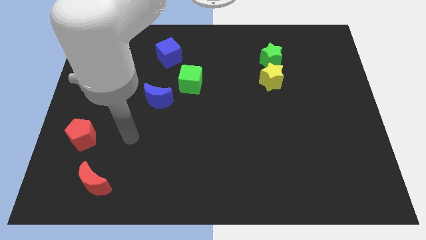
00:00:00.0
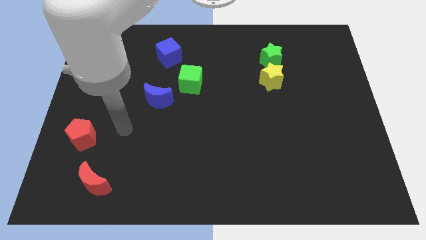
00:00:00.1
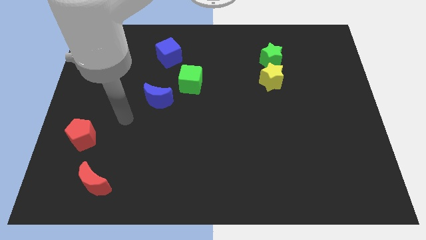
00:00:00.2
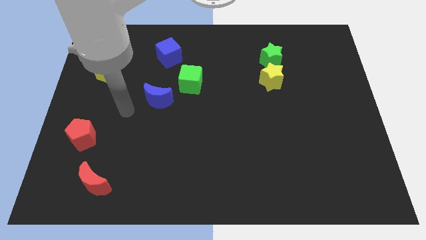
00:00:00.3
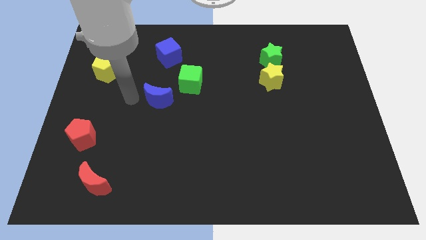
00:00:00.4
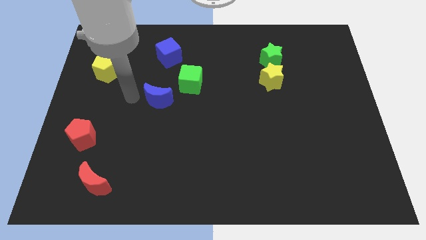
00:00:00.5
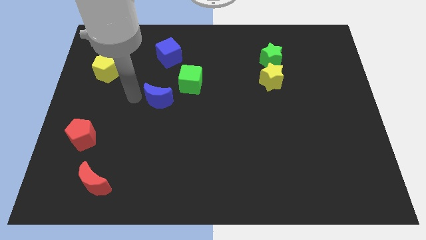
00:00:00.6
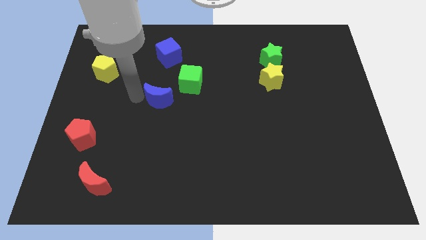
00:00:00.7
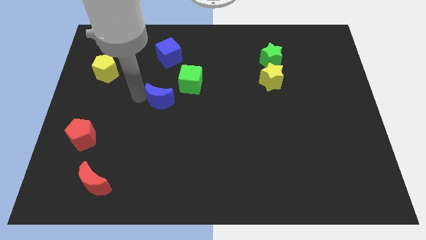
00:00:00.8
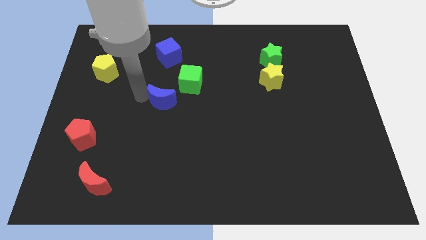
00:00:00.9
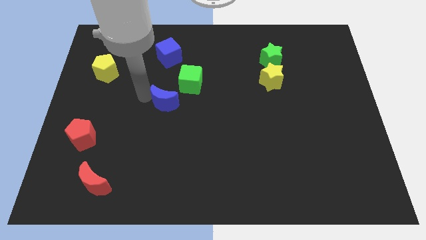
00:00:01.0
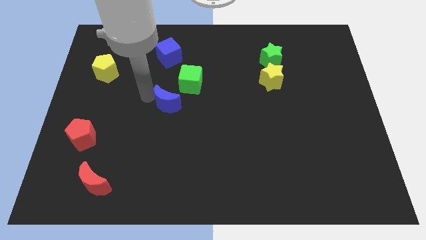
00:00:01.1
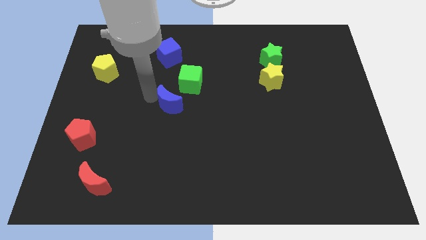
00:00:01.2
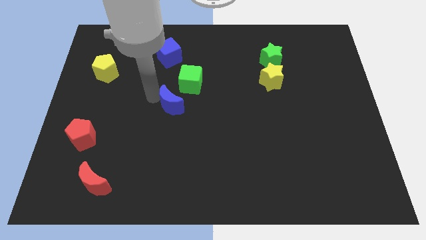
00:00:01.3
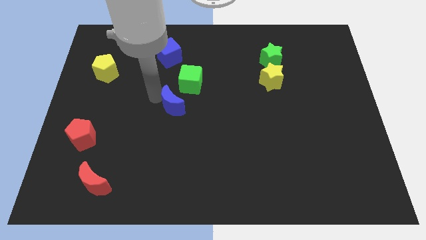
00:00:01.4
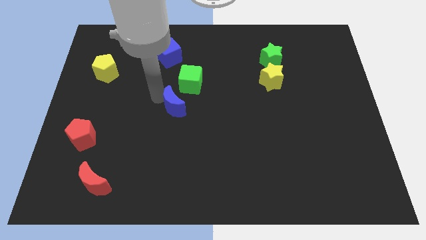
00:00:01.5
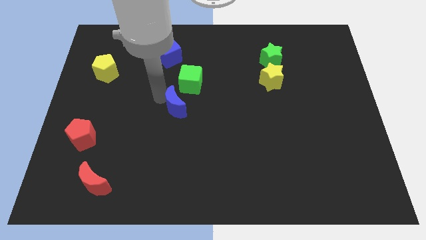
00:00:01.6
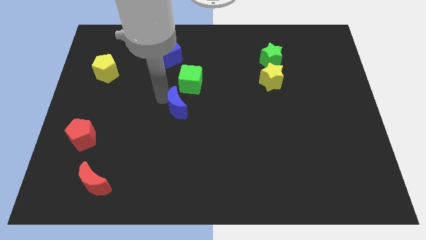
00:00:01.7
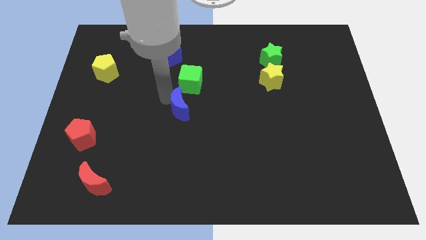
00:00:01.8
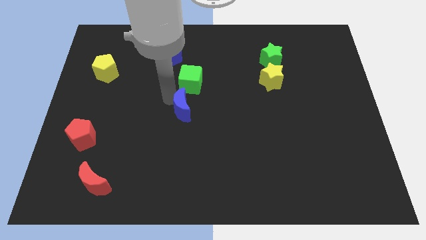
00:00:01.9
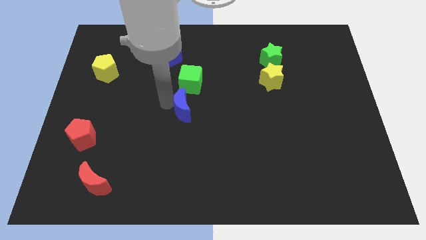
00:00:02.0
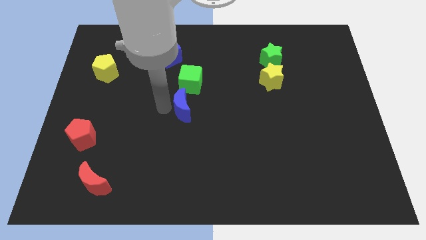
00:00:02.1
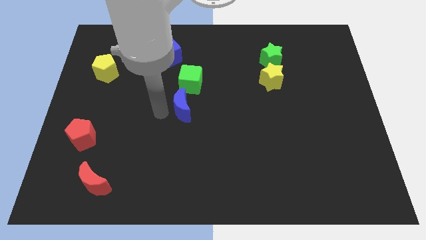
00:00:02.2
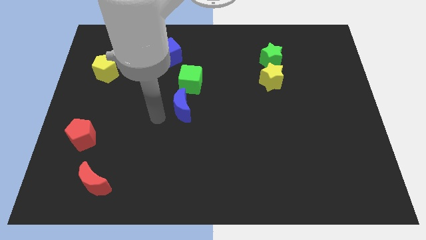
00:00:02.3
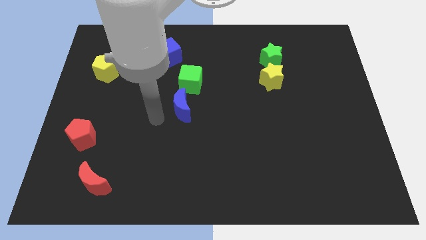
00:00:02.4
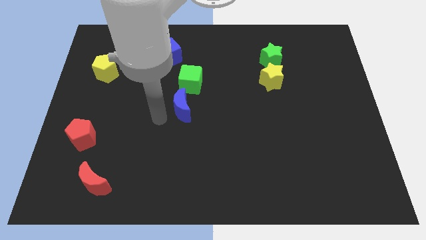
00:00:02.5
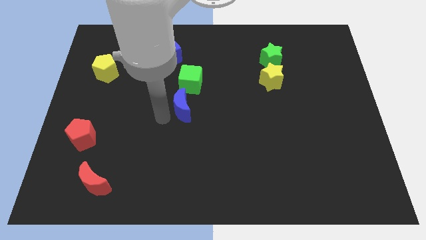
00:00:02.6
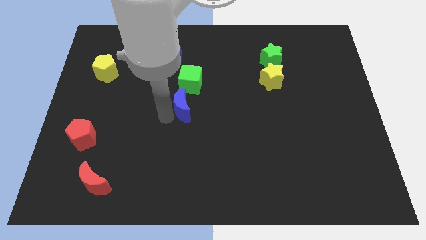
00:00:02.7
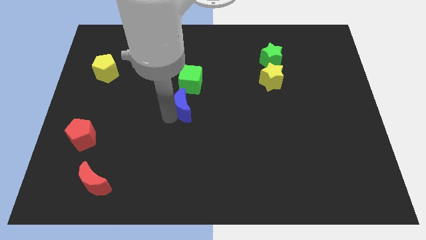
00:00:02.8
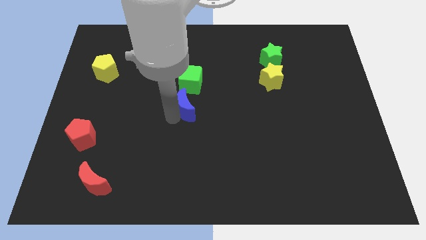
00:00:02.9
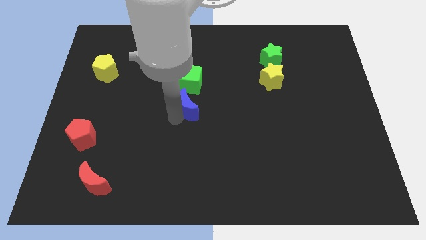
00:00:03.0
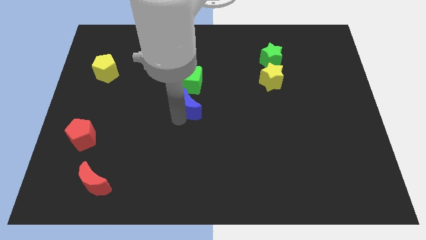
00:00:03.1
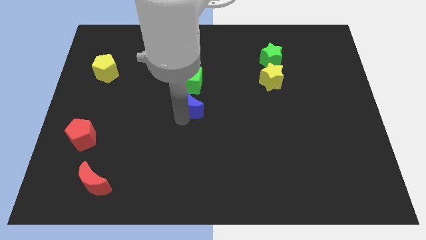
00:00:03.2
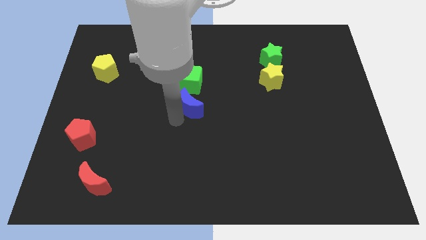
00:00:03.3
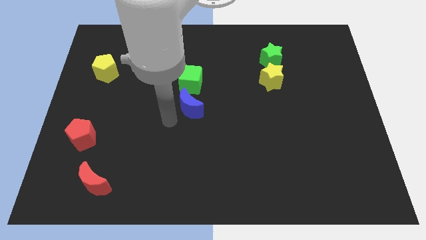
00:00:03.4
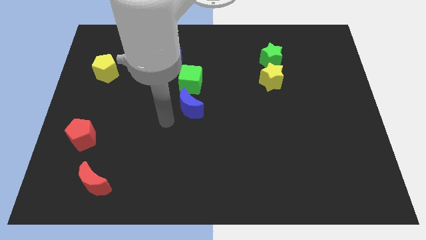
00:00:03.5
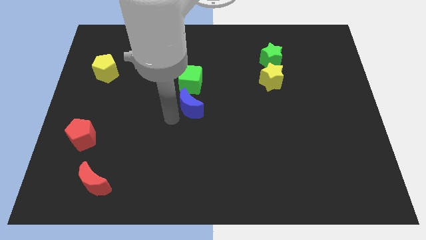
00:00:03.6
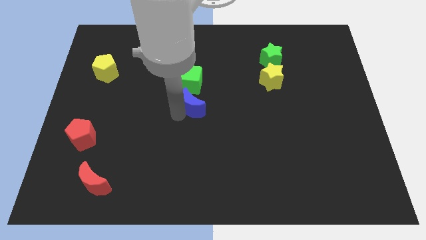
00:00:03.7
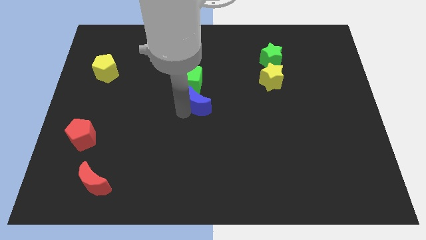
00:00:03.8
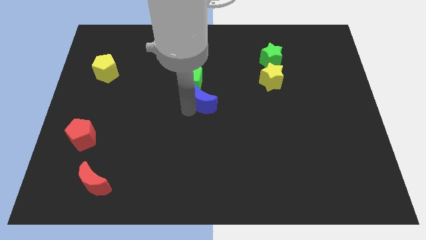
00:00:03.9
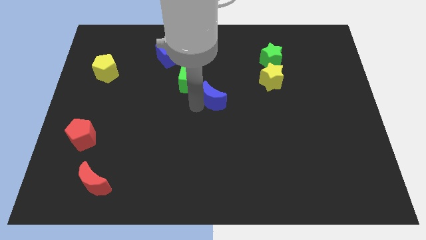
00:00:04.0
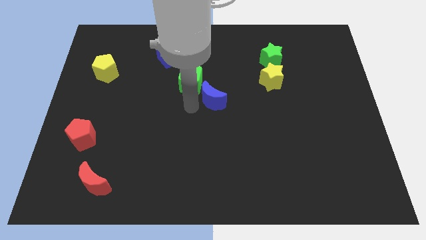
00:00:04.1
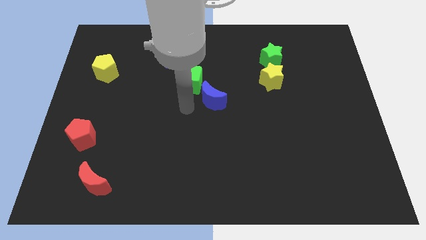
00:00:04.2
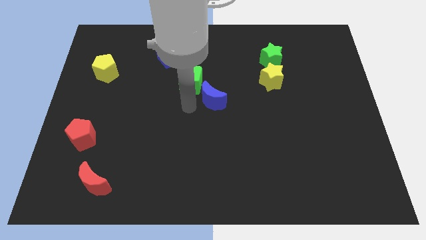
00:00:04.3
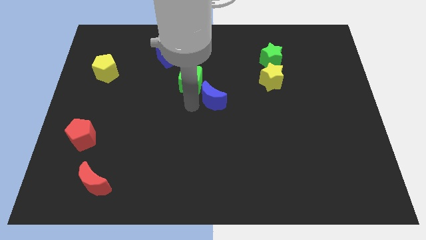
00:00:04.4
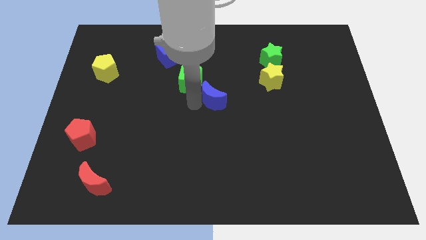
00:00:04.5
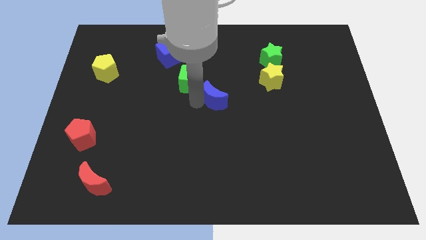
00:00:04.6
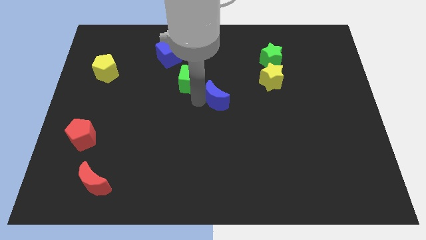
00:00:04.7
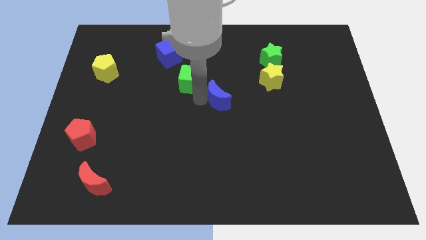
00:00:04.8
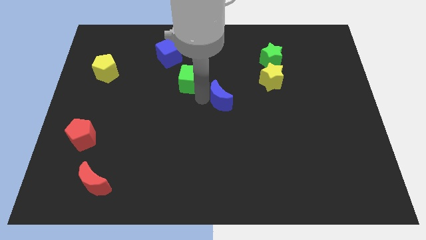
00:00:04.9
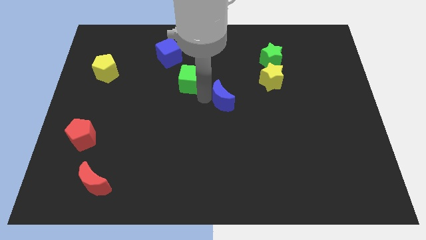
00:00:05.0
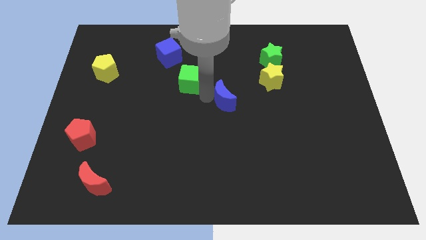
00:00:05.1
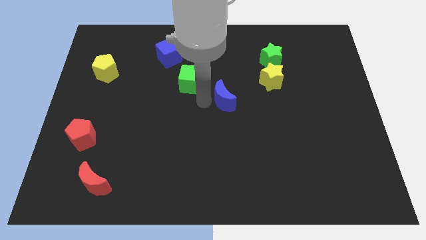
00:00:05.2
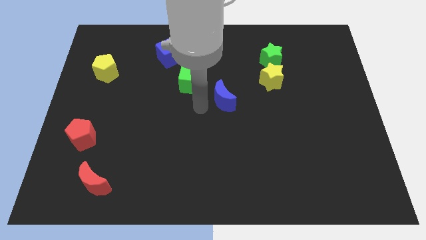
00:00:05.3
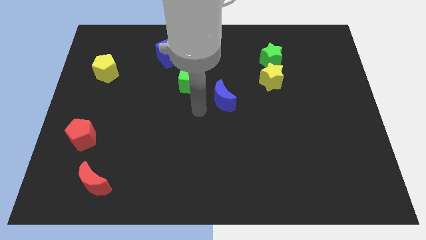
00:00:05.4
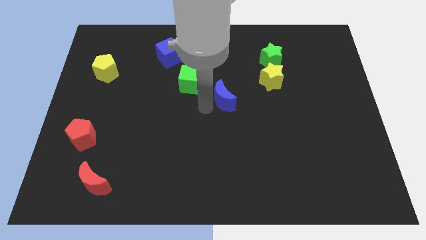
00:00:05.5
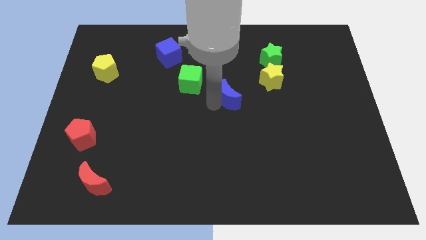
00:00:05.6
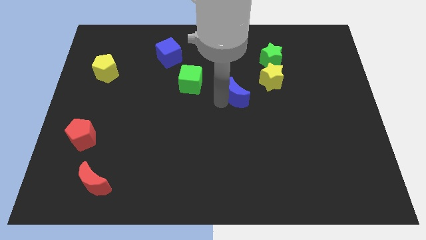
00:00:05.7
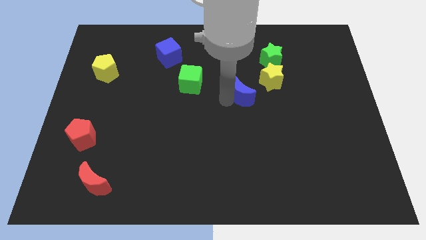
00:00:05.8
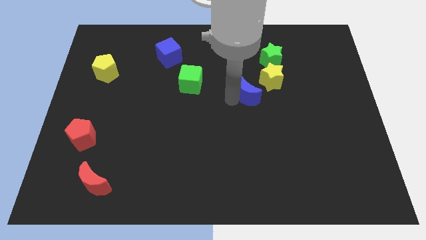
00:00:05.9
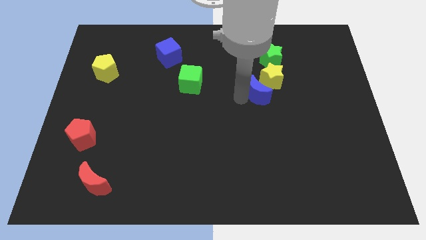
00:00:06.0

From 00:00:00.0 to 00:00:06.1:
move the blue moon close to the yellow star

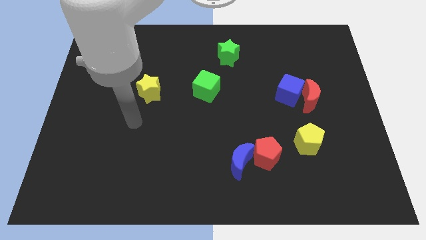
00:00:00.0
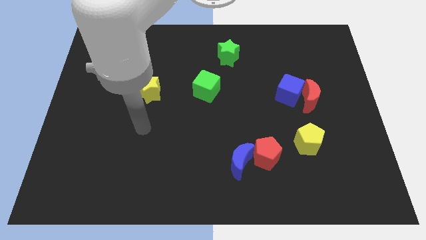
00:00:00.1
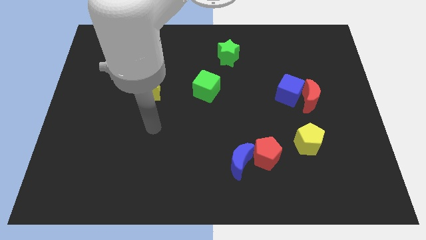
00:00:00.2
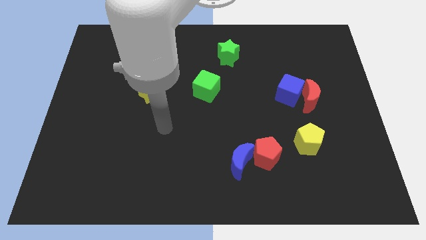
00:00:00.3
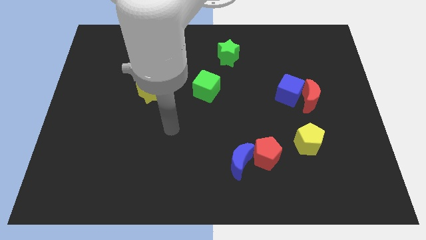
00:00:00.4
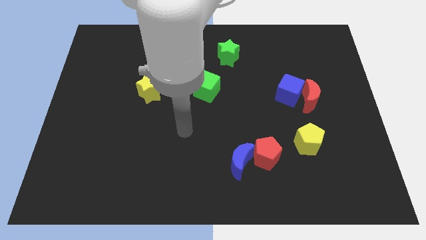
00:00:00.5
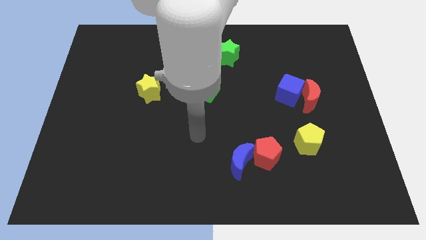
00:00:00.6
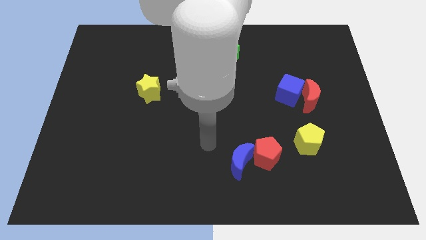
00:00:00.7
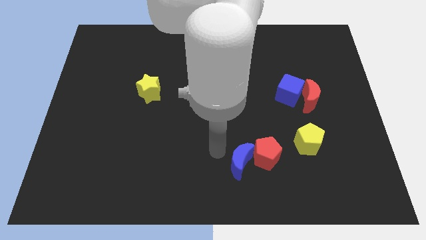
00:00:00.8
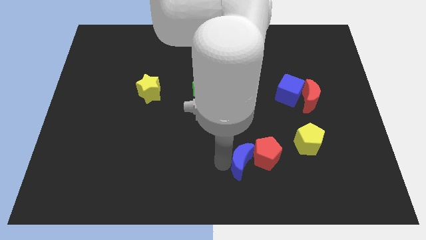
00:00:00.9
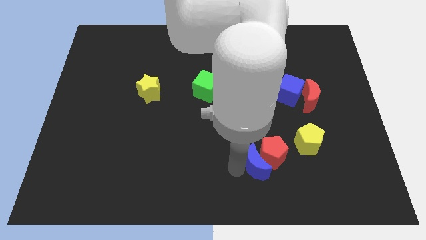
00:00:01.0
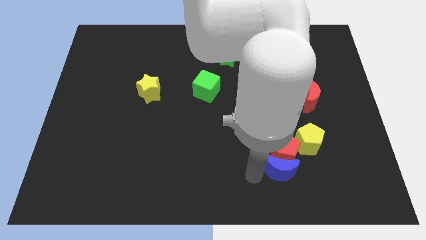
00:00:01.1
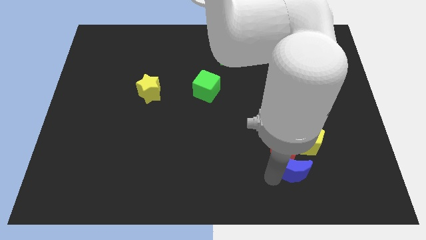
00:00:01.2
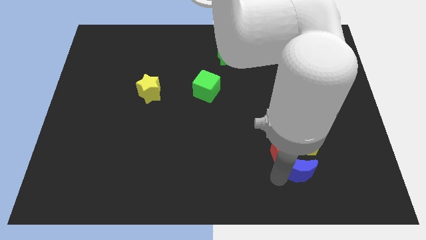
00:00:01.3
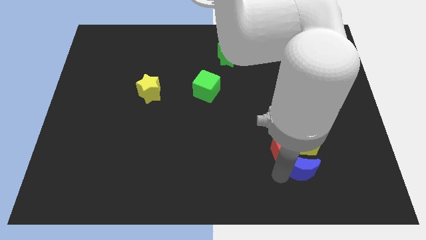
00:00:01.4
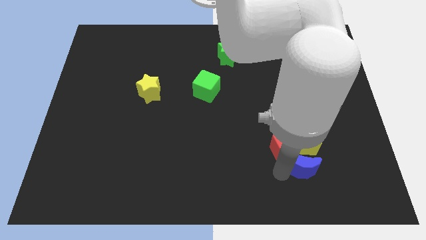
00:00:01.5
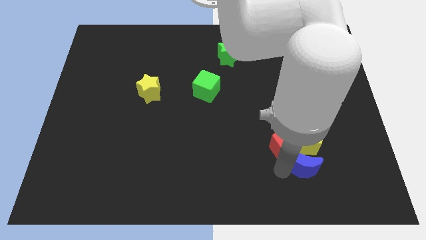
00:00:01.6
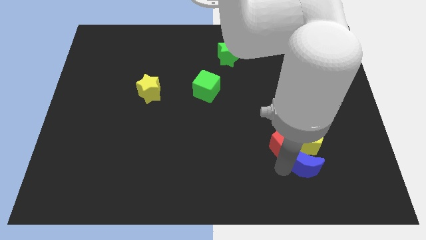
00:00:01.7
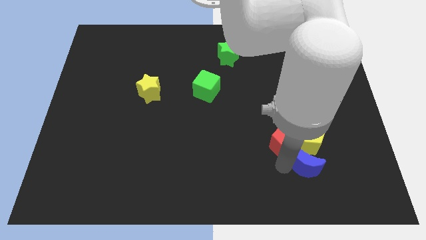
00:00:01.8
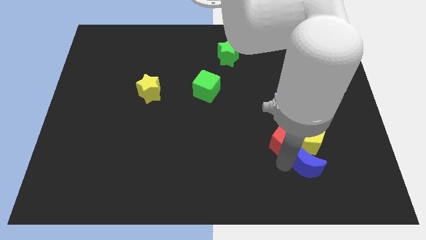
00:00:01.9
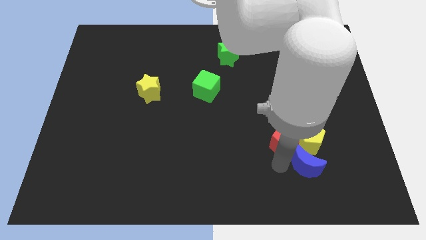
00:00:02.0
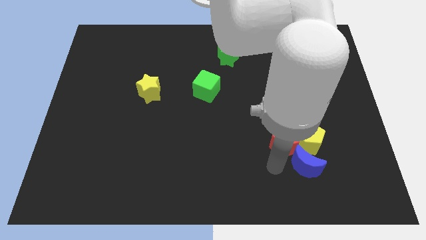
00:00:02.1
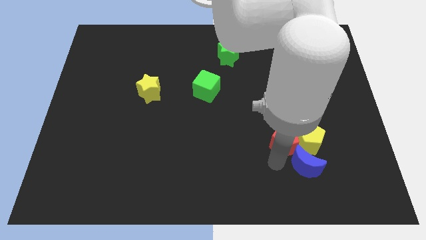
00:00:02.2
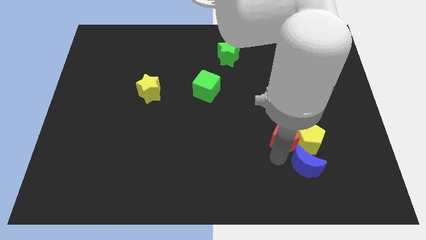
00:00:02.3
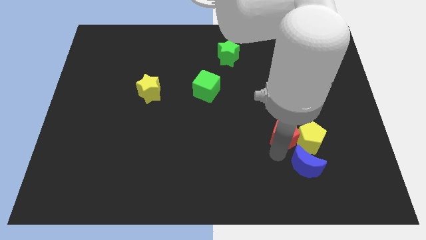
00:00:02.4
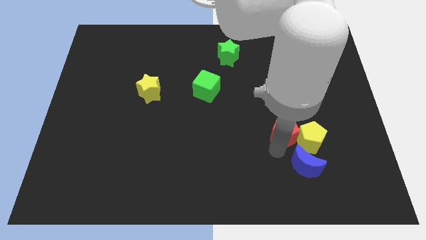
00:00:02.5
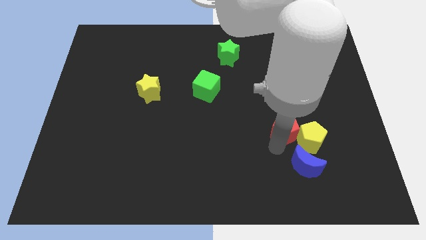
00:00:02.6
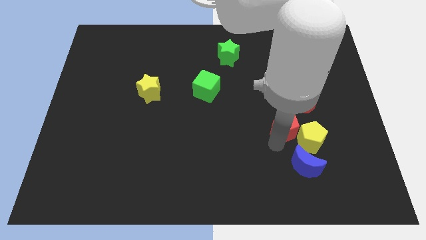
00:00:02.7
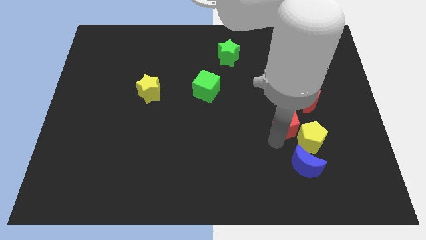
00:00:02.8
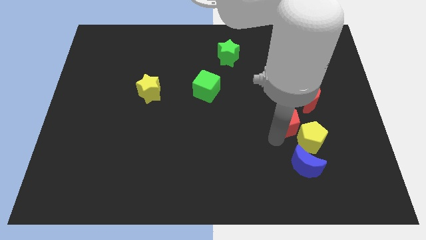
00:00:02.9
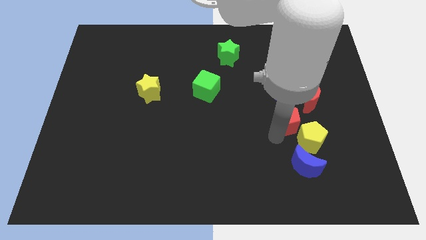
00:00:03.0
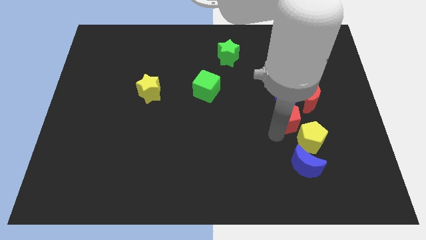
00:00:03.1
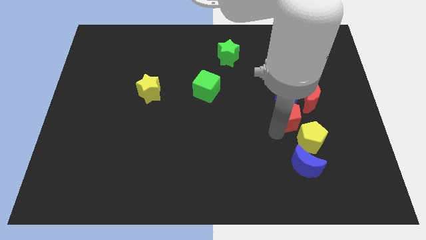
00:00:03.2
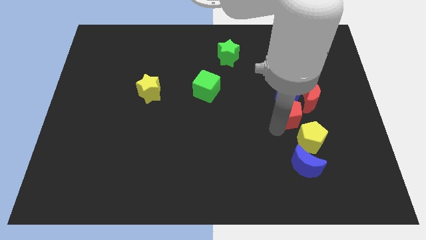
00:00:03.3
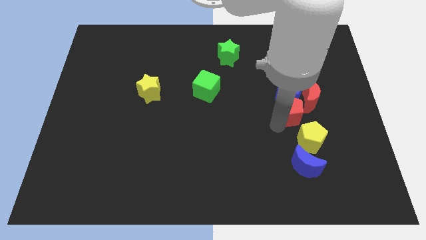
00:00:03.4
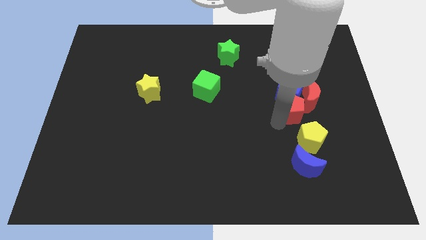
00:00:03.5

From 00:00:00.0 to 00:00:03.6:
slide the red pentagon close to the red moon
